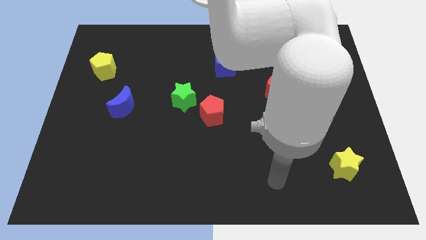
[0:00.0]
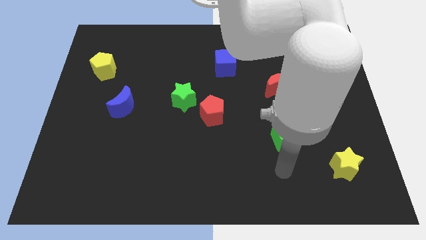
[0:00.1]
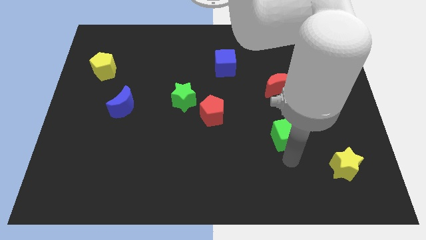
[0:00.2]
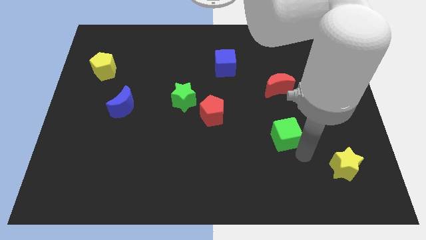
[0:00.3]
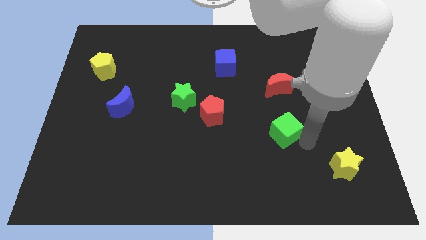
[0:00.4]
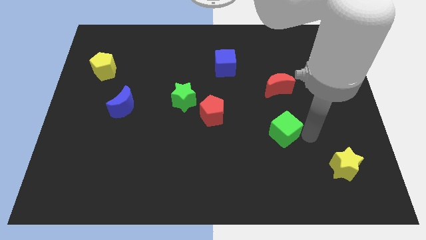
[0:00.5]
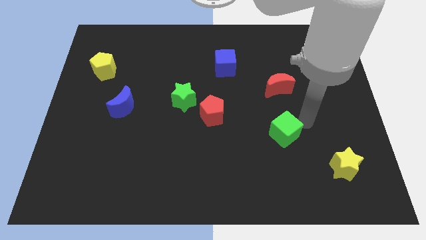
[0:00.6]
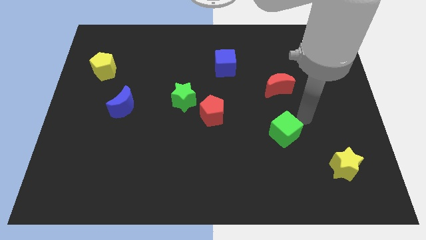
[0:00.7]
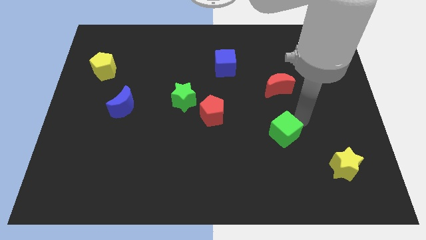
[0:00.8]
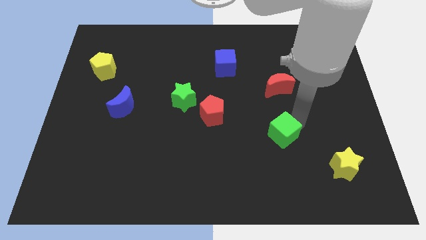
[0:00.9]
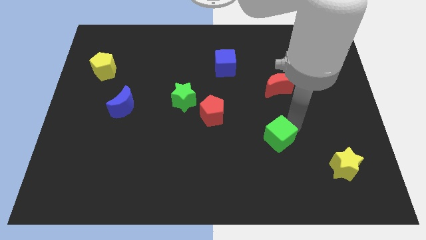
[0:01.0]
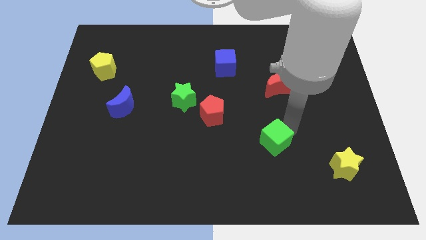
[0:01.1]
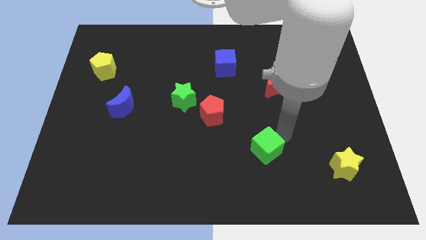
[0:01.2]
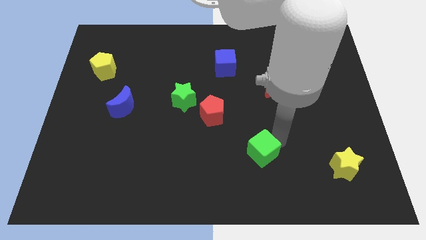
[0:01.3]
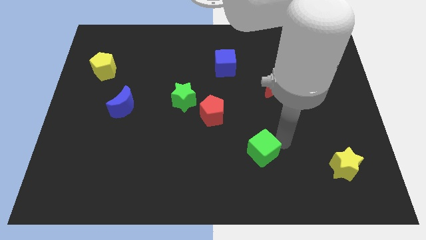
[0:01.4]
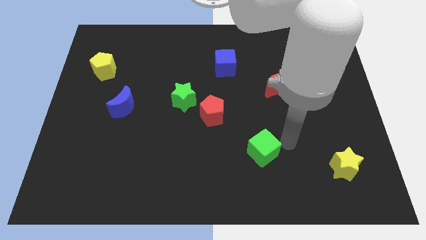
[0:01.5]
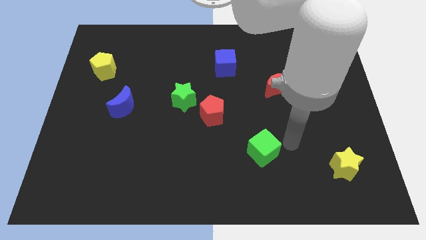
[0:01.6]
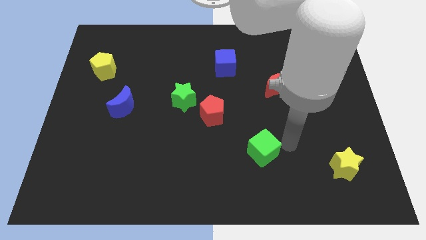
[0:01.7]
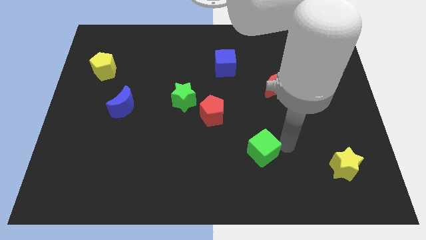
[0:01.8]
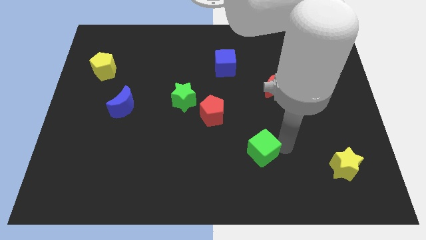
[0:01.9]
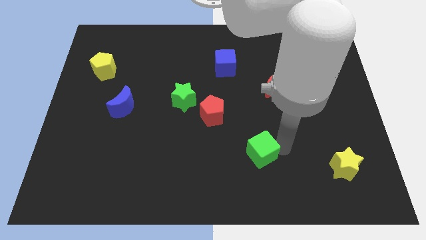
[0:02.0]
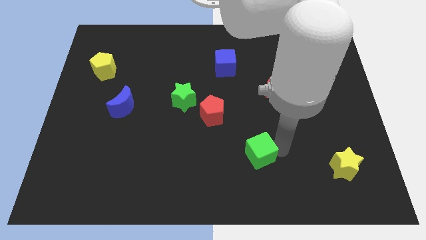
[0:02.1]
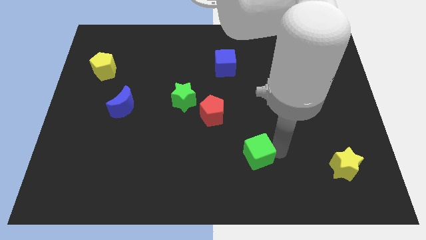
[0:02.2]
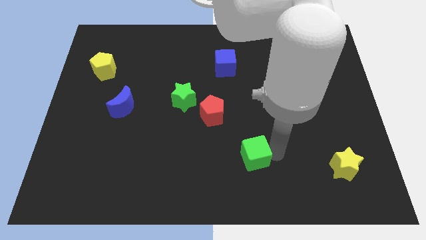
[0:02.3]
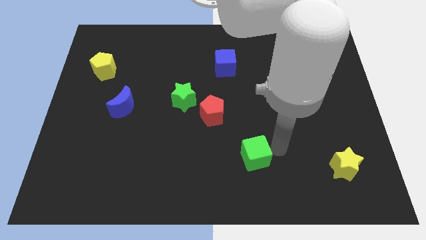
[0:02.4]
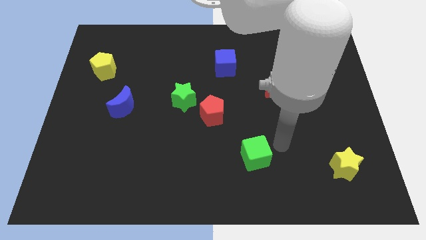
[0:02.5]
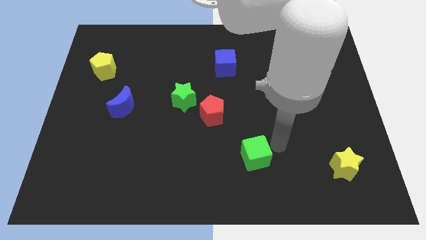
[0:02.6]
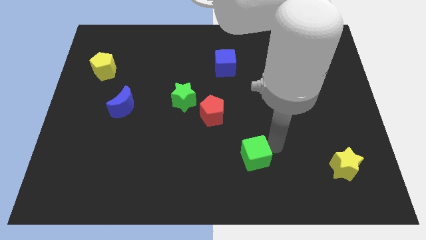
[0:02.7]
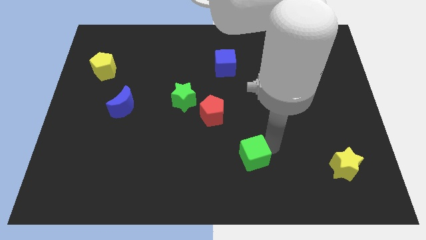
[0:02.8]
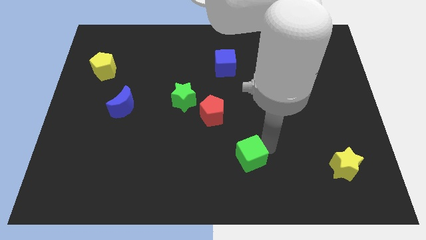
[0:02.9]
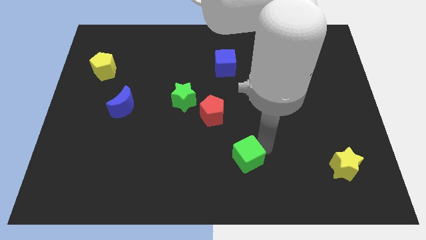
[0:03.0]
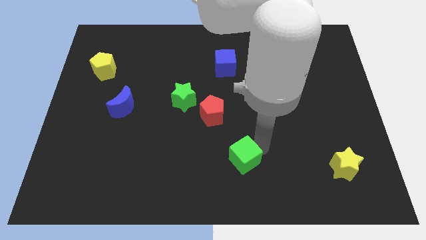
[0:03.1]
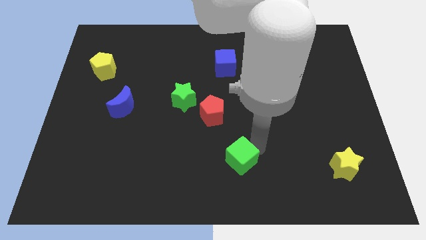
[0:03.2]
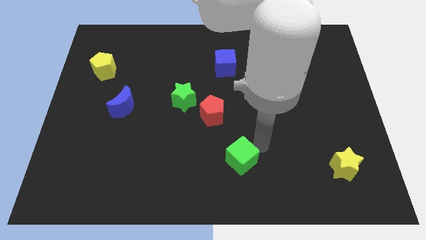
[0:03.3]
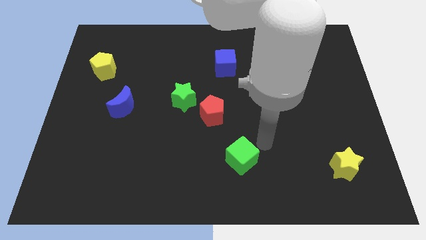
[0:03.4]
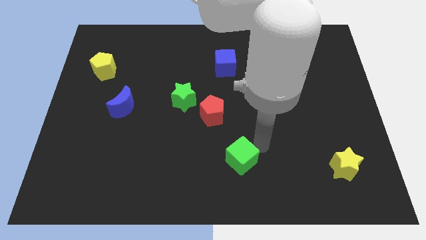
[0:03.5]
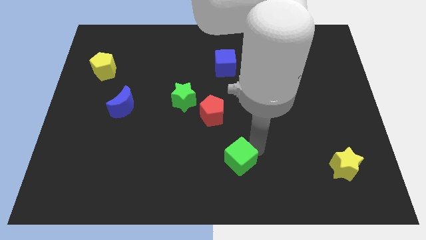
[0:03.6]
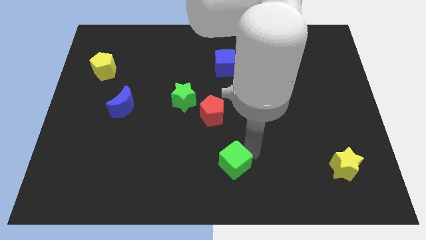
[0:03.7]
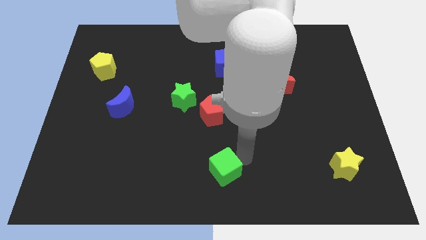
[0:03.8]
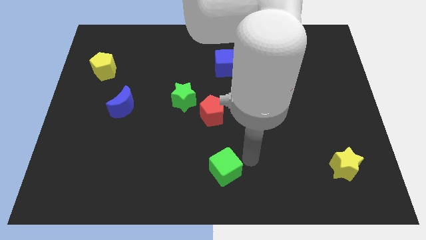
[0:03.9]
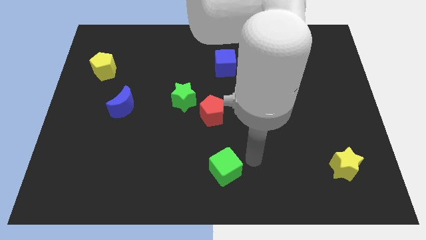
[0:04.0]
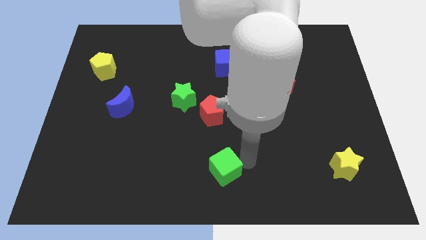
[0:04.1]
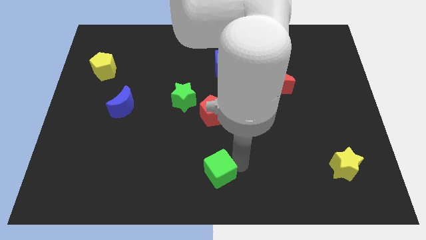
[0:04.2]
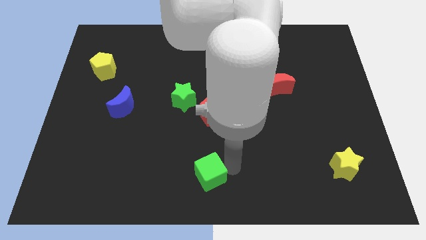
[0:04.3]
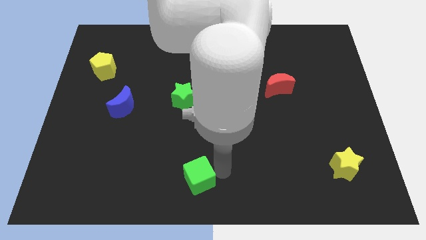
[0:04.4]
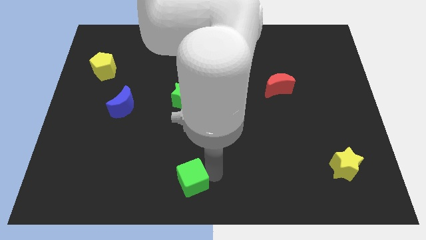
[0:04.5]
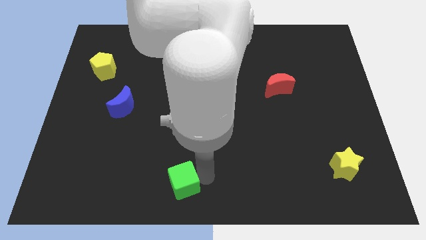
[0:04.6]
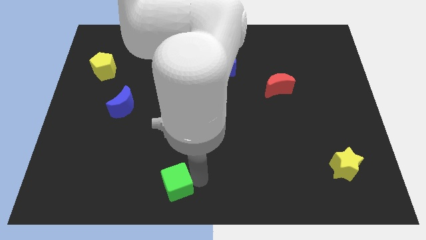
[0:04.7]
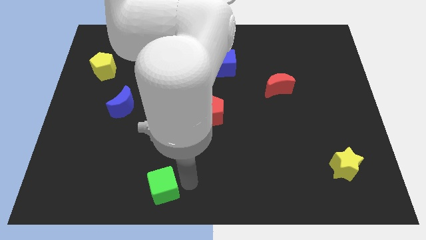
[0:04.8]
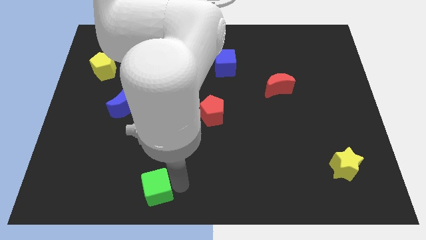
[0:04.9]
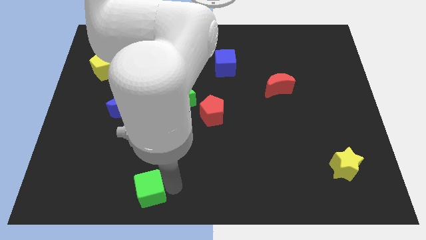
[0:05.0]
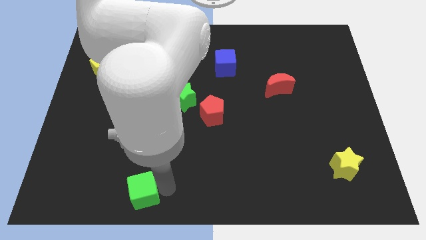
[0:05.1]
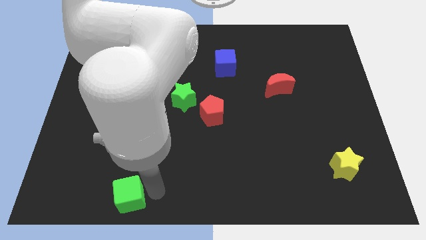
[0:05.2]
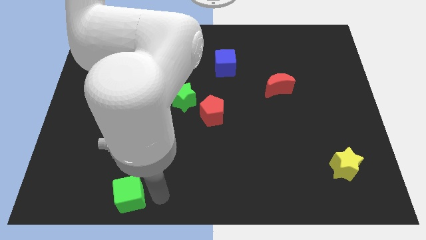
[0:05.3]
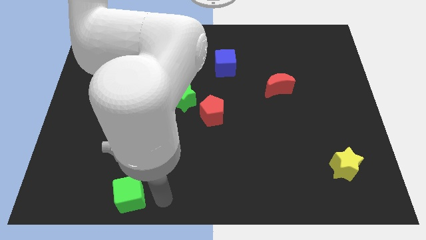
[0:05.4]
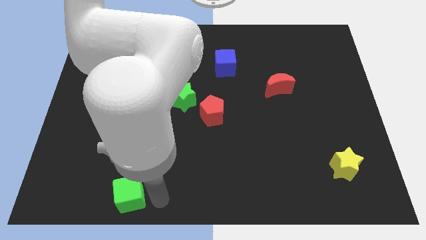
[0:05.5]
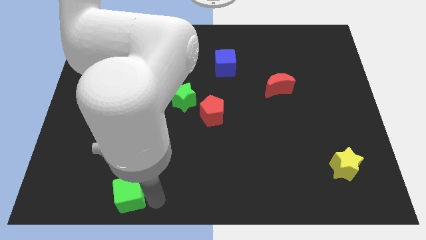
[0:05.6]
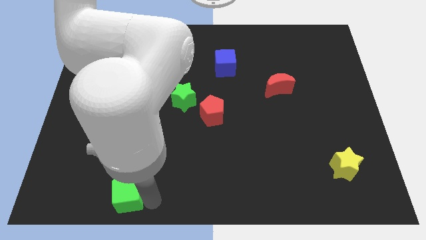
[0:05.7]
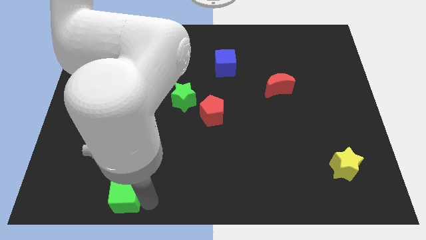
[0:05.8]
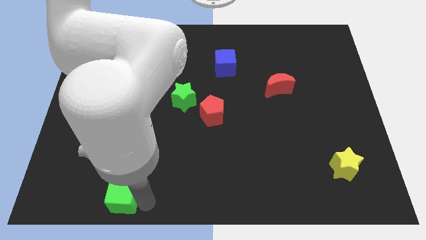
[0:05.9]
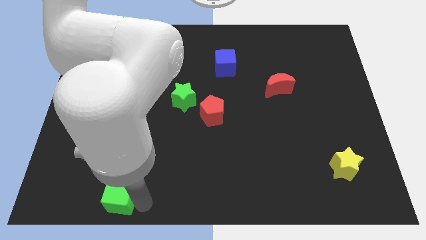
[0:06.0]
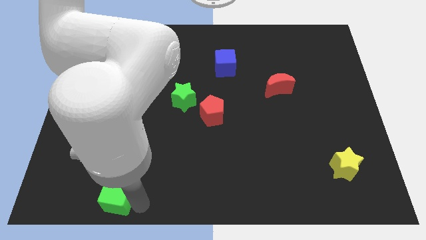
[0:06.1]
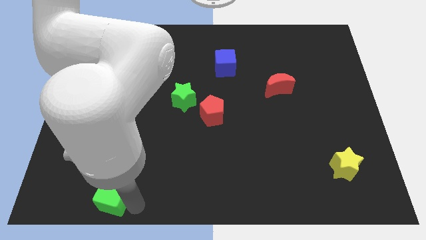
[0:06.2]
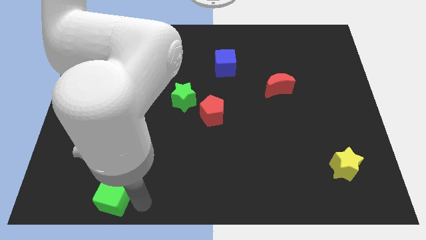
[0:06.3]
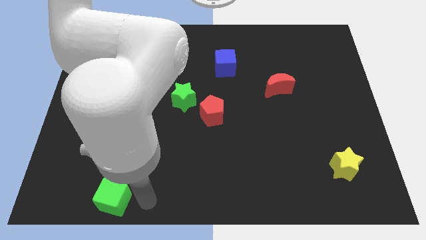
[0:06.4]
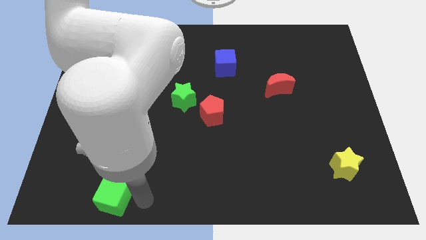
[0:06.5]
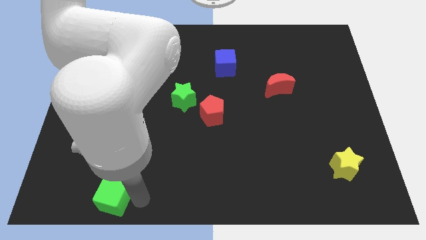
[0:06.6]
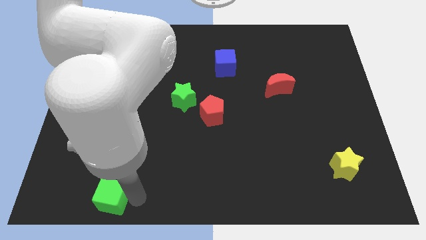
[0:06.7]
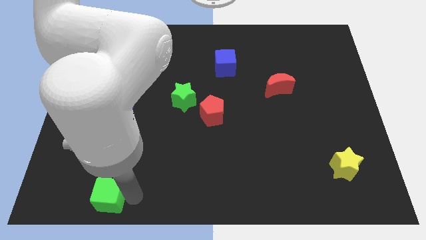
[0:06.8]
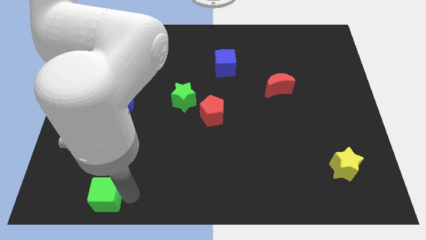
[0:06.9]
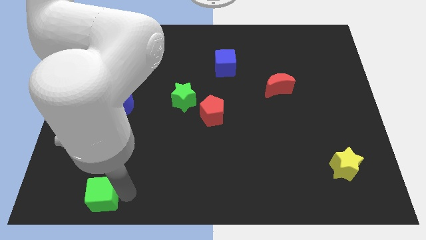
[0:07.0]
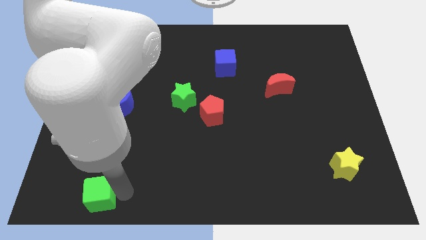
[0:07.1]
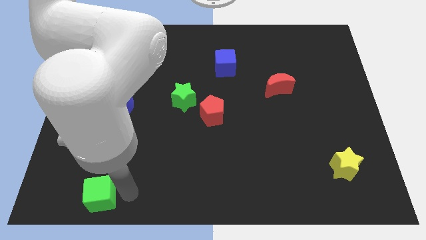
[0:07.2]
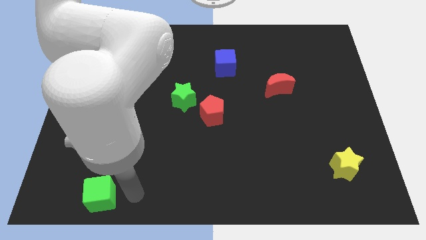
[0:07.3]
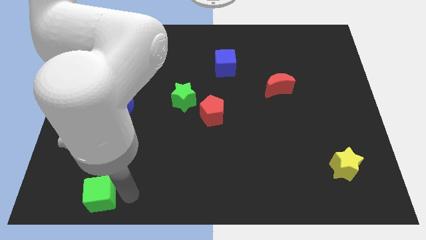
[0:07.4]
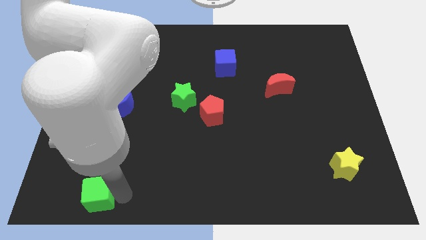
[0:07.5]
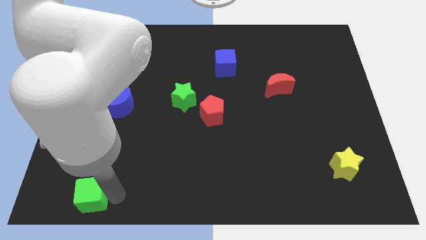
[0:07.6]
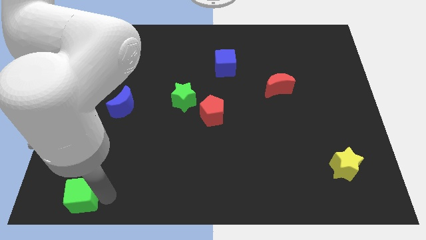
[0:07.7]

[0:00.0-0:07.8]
put the green cube to the bottom left
